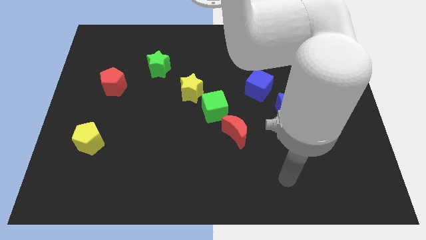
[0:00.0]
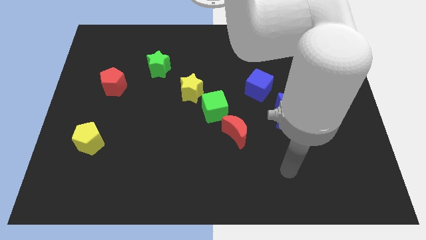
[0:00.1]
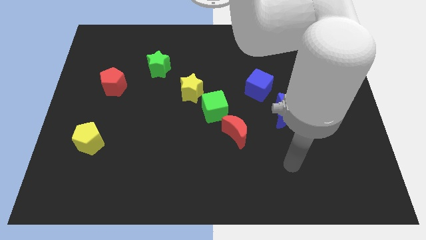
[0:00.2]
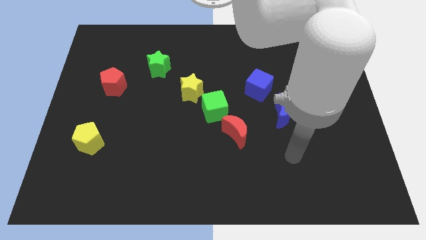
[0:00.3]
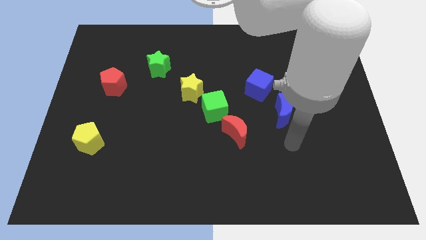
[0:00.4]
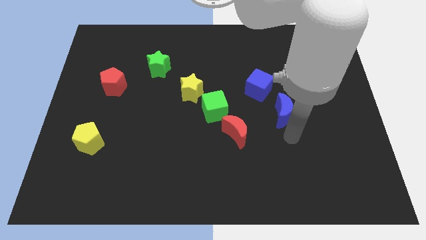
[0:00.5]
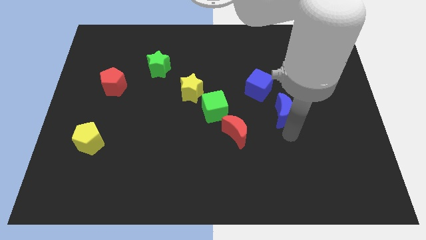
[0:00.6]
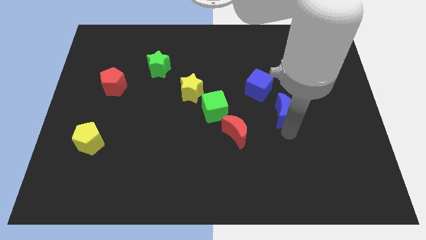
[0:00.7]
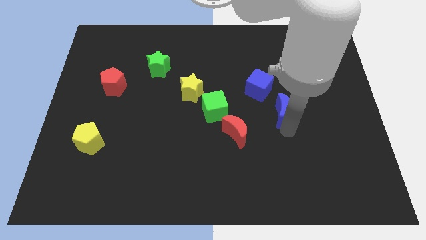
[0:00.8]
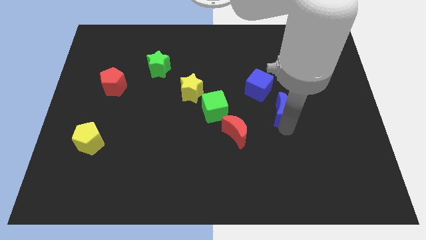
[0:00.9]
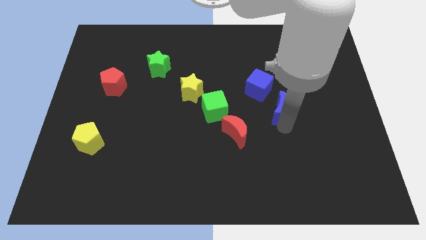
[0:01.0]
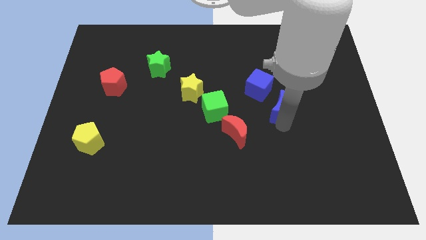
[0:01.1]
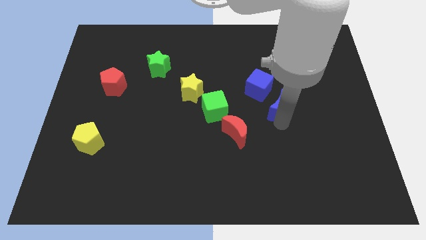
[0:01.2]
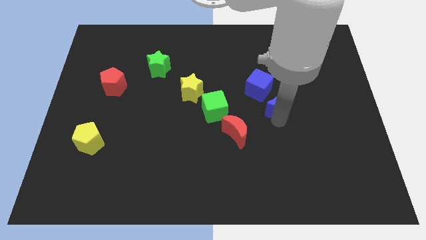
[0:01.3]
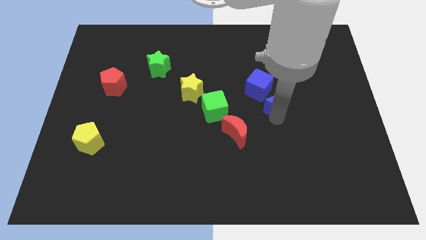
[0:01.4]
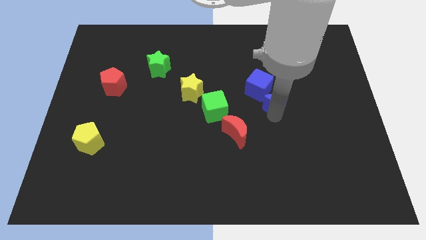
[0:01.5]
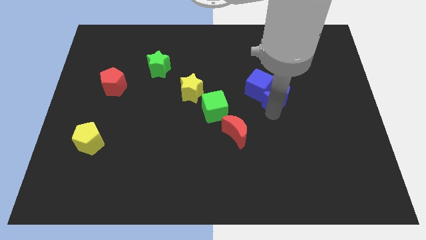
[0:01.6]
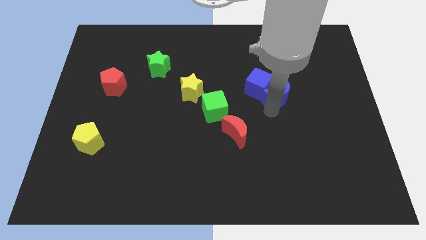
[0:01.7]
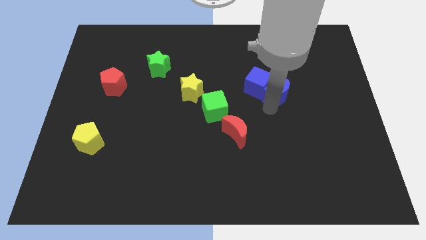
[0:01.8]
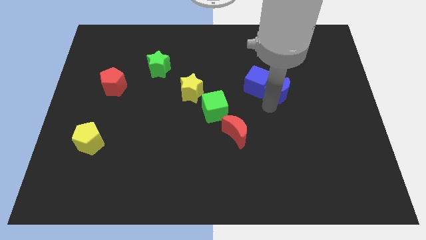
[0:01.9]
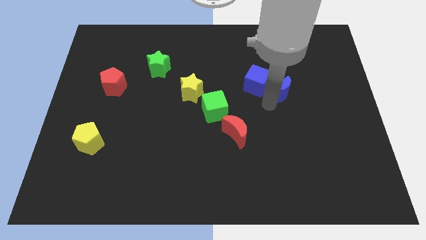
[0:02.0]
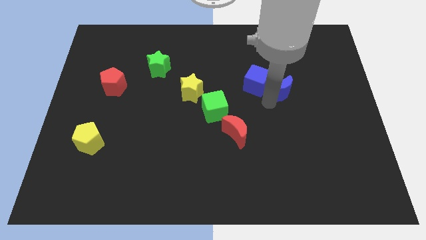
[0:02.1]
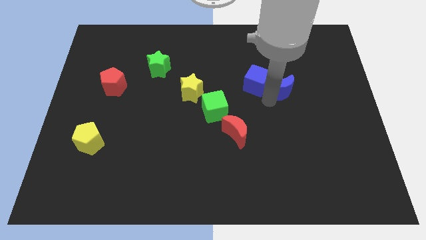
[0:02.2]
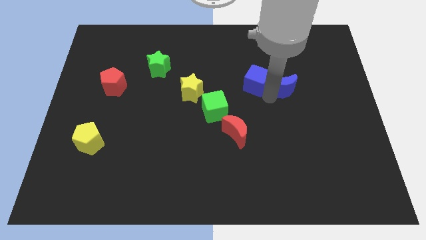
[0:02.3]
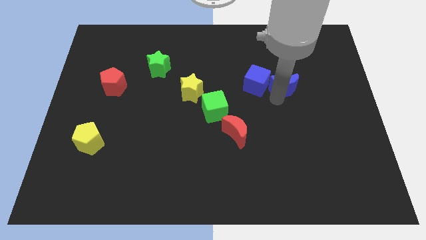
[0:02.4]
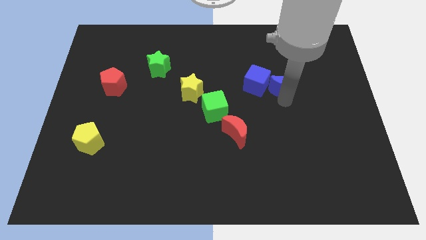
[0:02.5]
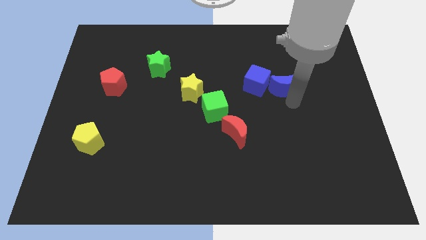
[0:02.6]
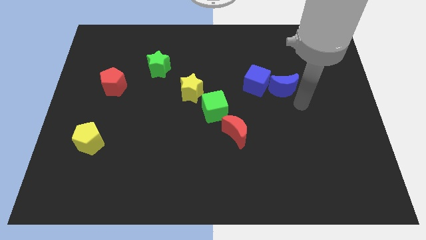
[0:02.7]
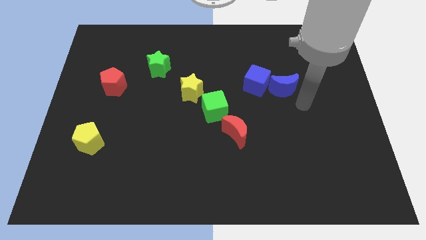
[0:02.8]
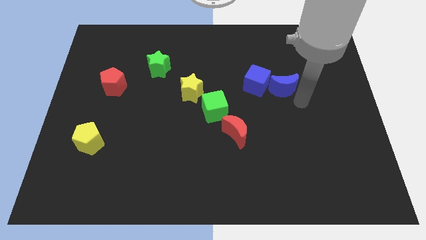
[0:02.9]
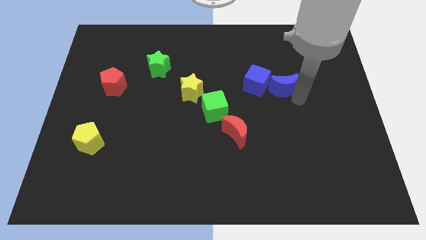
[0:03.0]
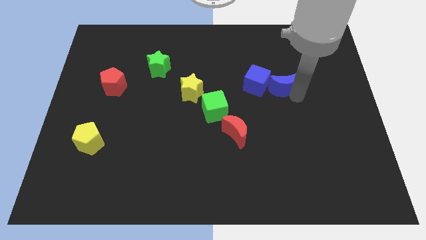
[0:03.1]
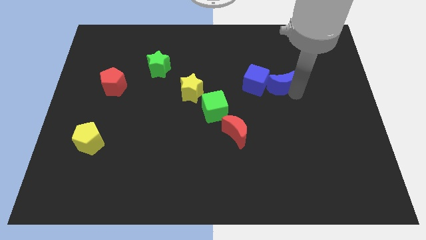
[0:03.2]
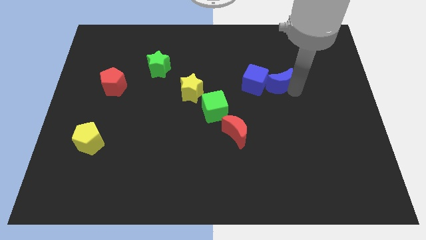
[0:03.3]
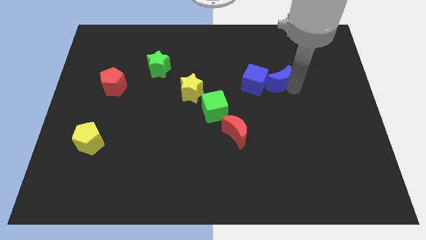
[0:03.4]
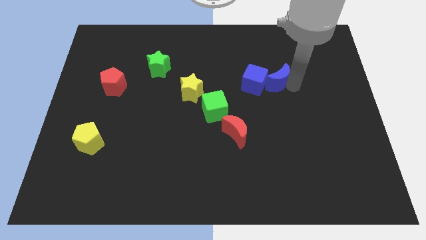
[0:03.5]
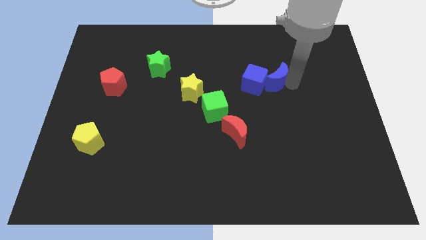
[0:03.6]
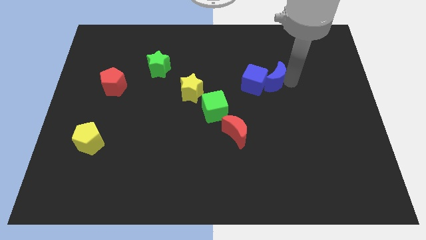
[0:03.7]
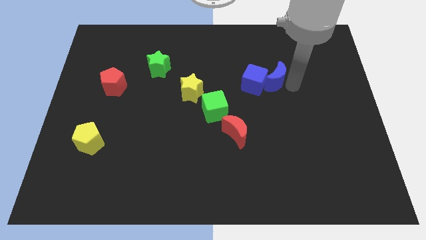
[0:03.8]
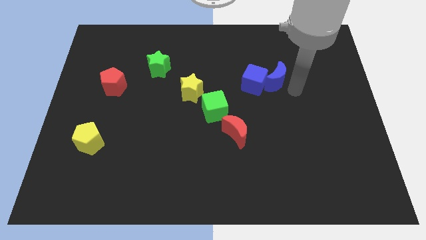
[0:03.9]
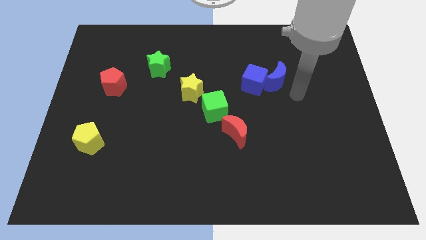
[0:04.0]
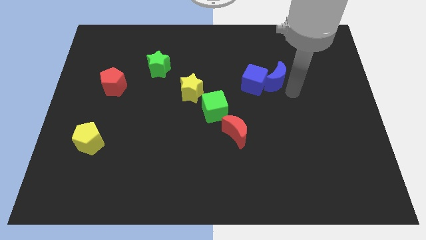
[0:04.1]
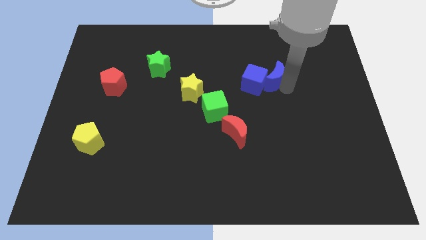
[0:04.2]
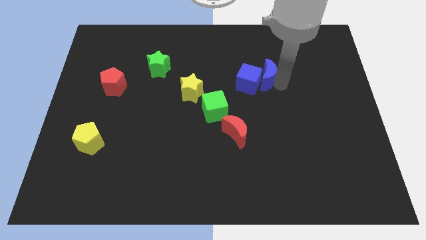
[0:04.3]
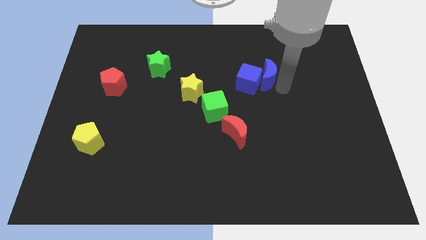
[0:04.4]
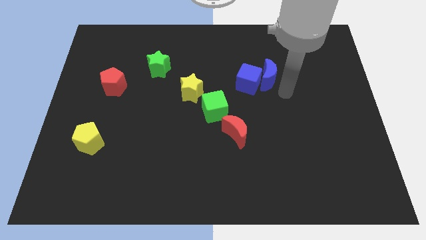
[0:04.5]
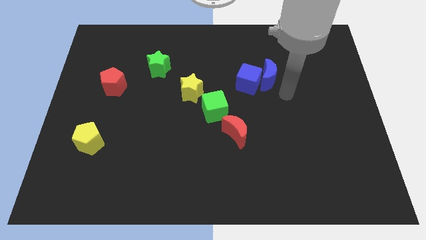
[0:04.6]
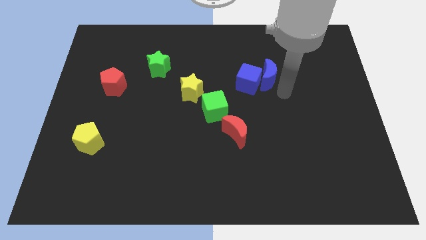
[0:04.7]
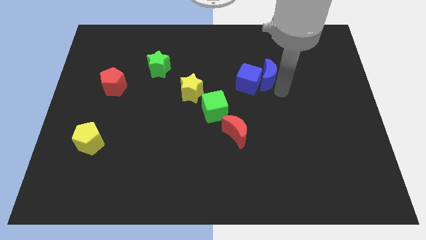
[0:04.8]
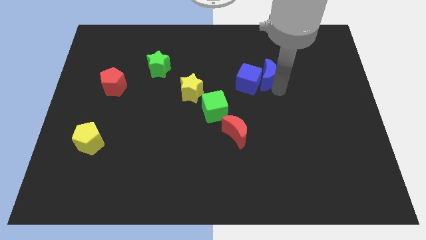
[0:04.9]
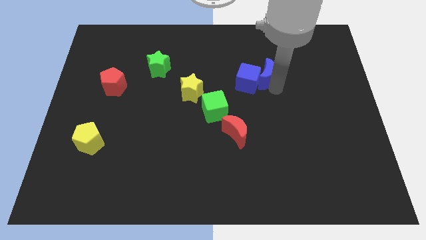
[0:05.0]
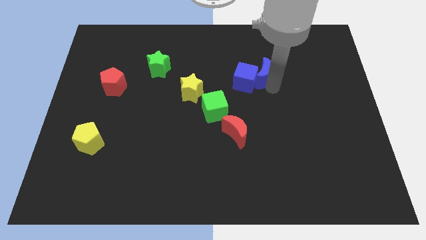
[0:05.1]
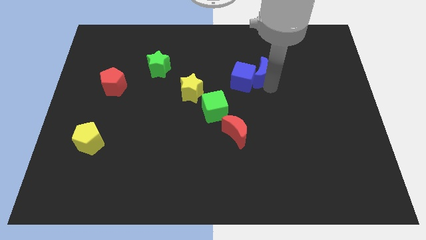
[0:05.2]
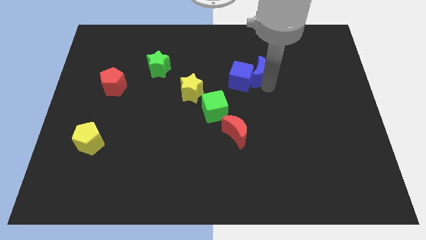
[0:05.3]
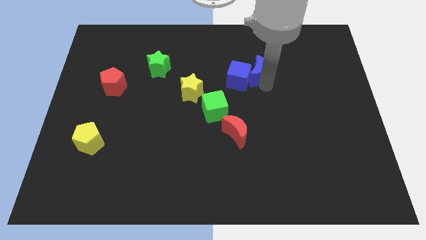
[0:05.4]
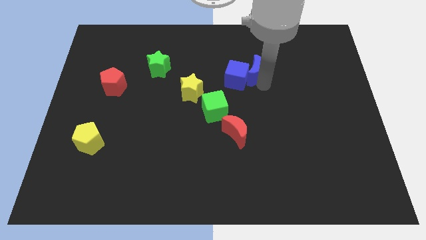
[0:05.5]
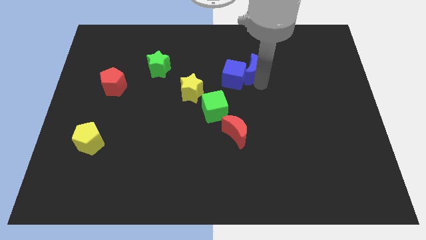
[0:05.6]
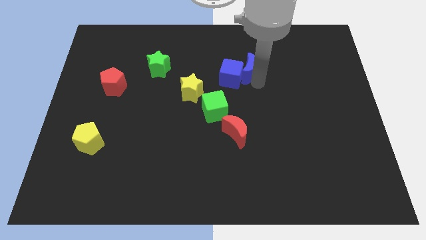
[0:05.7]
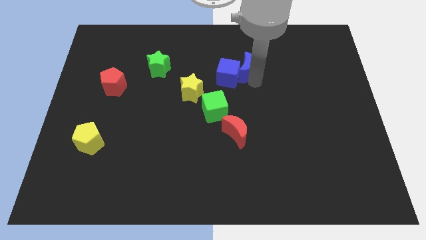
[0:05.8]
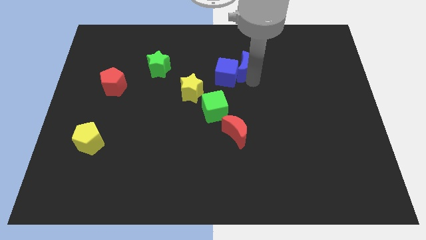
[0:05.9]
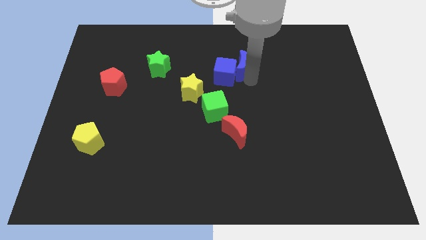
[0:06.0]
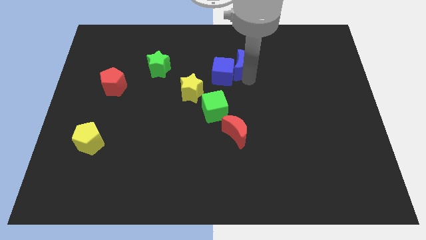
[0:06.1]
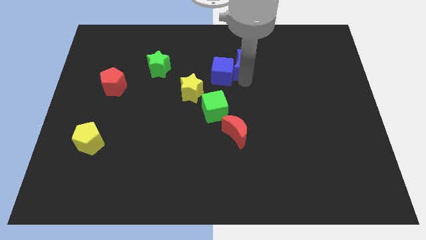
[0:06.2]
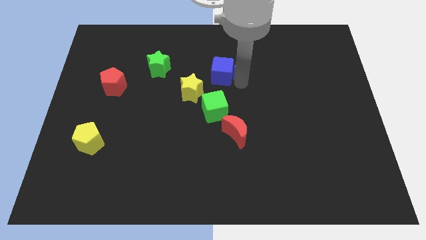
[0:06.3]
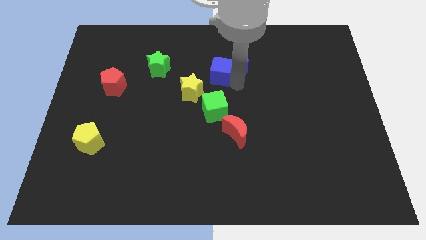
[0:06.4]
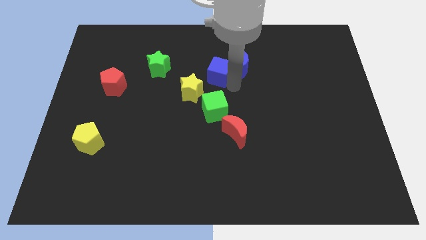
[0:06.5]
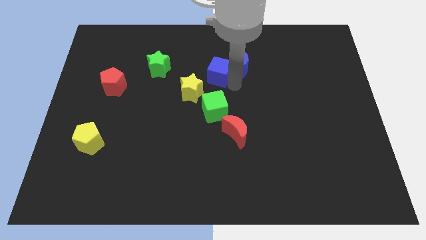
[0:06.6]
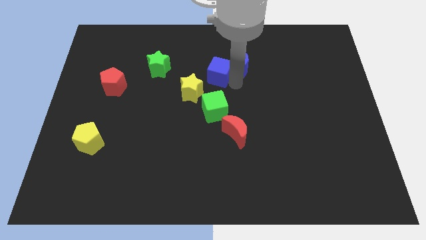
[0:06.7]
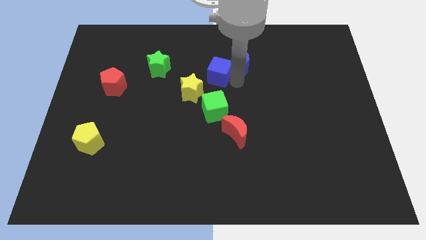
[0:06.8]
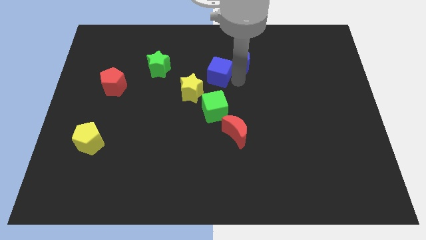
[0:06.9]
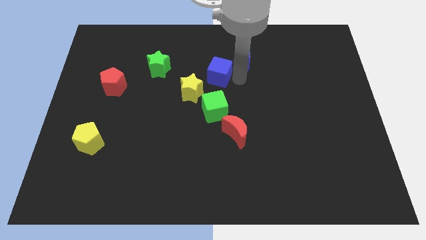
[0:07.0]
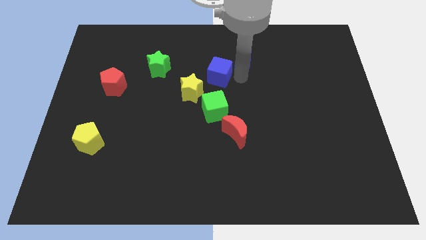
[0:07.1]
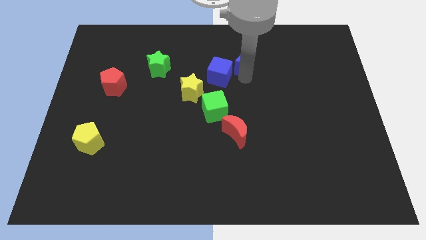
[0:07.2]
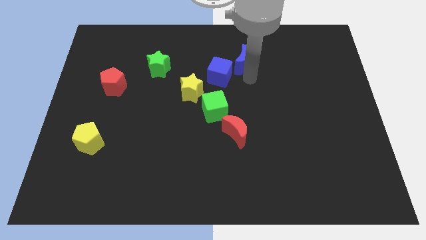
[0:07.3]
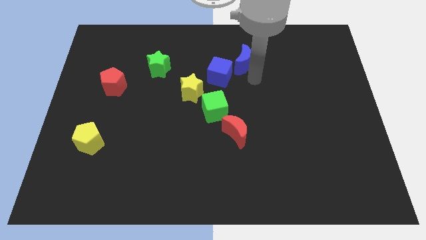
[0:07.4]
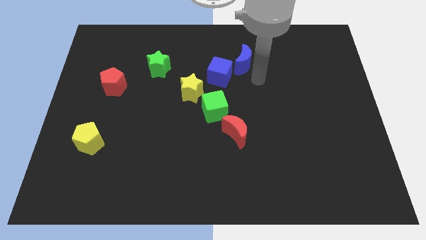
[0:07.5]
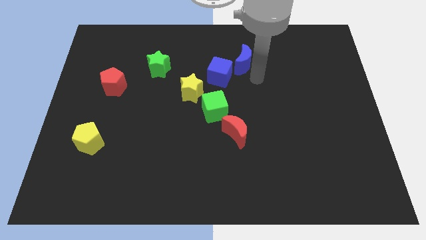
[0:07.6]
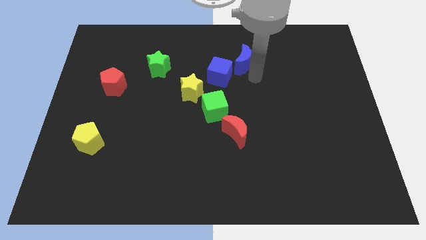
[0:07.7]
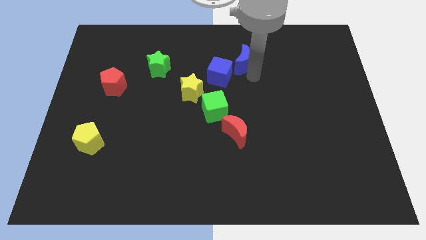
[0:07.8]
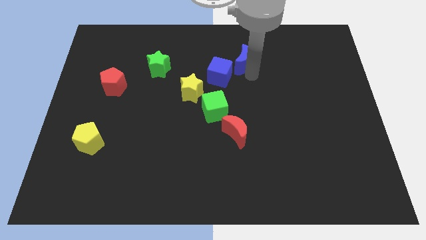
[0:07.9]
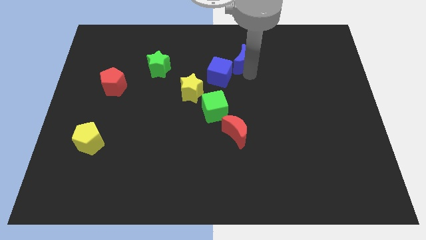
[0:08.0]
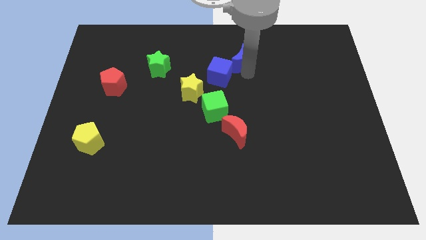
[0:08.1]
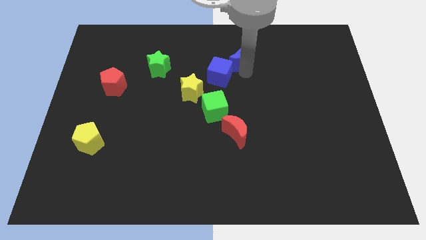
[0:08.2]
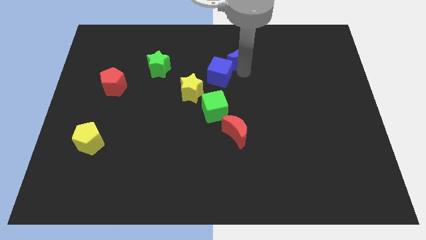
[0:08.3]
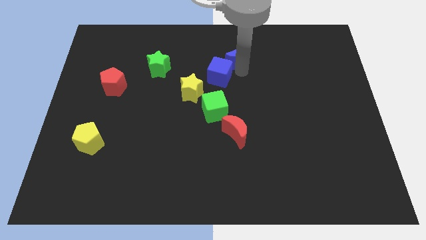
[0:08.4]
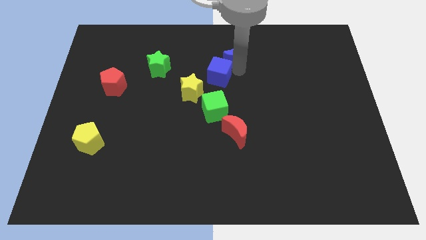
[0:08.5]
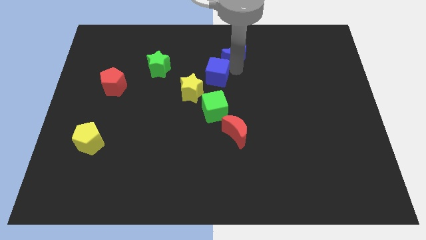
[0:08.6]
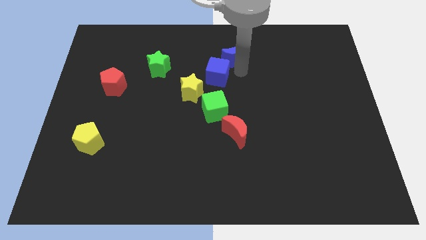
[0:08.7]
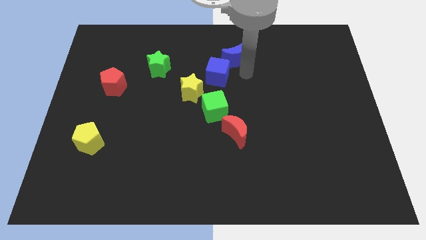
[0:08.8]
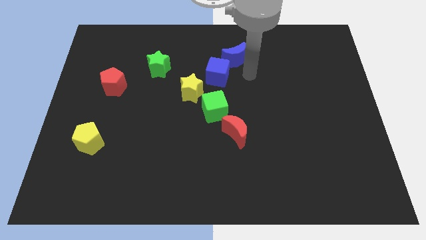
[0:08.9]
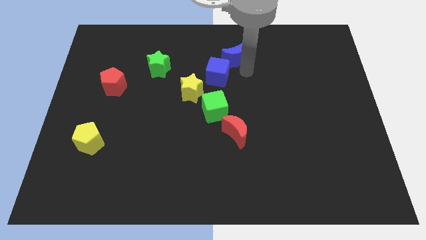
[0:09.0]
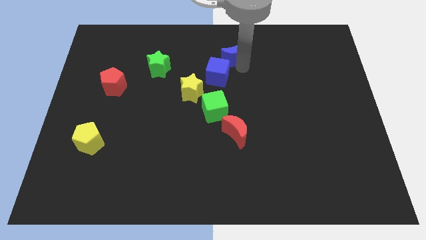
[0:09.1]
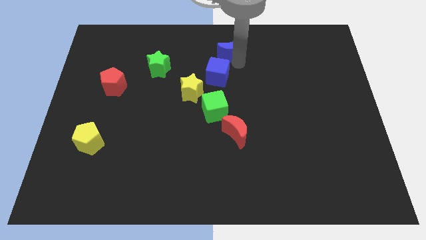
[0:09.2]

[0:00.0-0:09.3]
put the blue moon to the top
